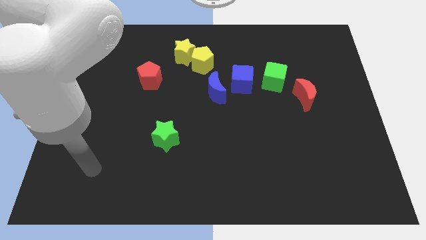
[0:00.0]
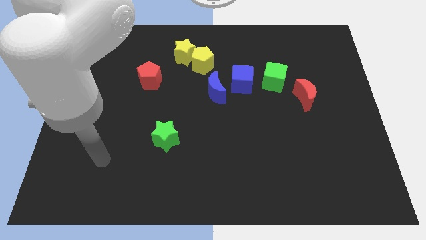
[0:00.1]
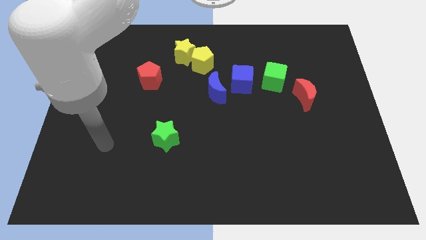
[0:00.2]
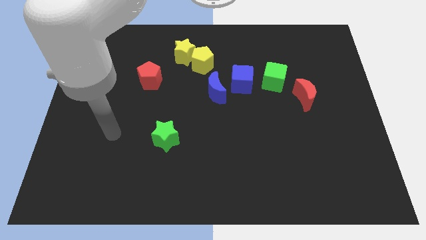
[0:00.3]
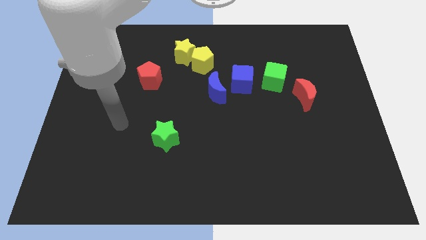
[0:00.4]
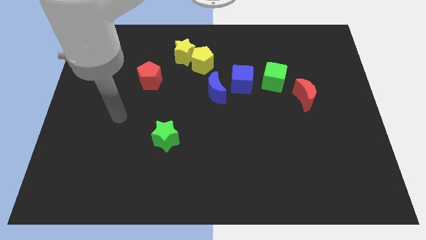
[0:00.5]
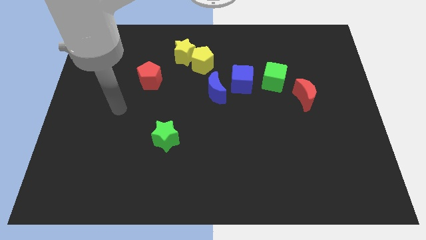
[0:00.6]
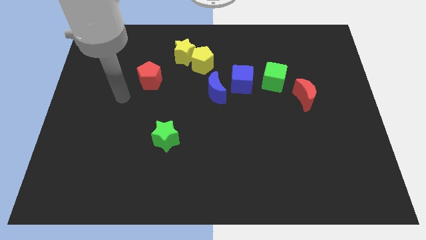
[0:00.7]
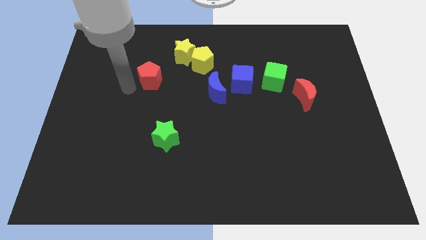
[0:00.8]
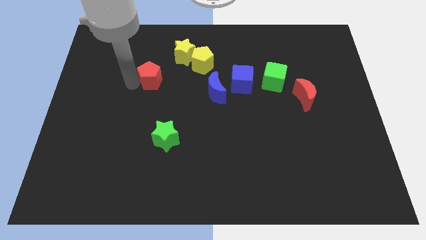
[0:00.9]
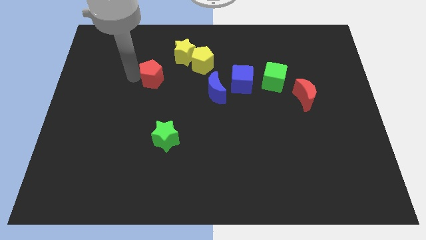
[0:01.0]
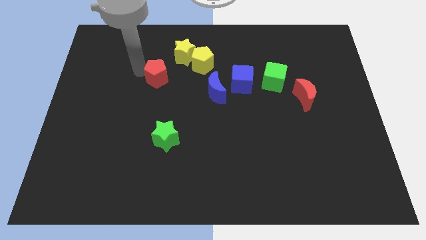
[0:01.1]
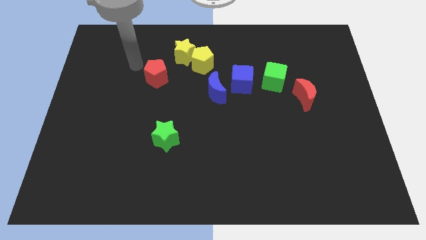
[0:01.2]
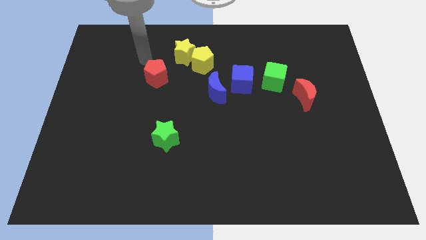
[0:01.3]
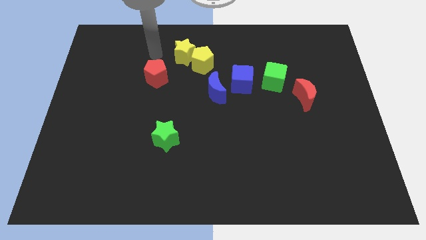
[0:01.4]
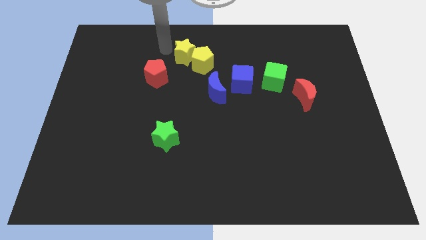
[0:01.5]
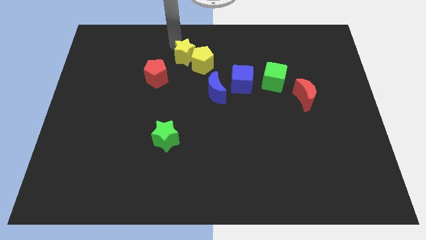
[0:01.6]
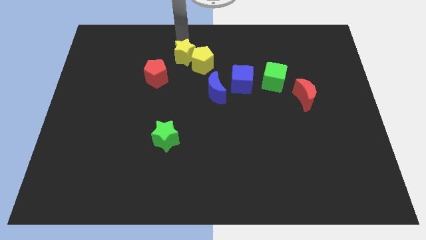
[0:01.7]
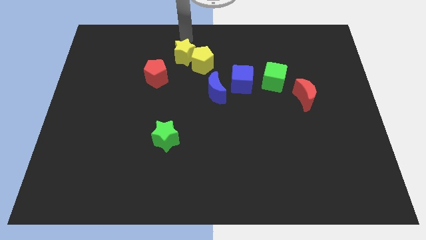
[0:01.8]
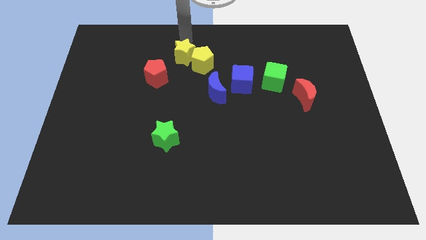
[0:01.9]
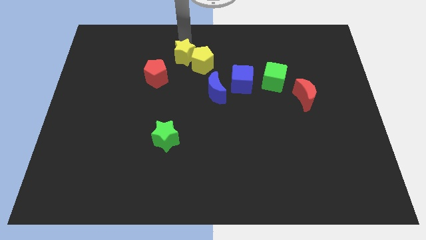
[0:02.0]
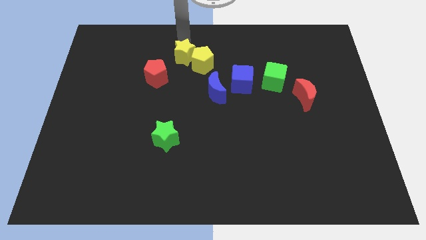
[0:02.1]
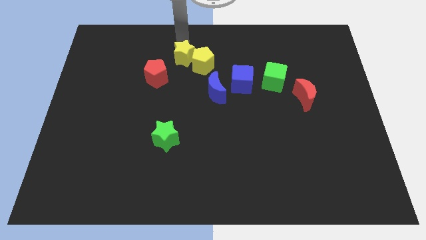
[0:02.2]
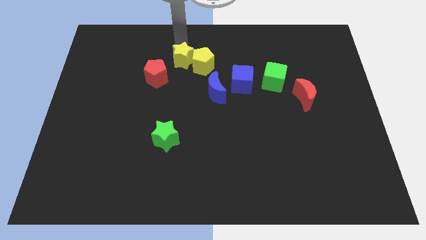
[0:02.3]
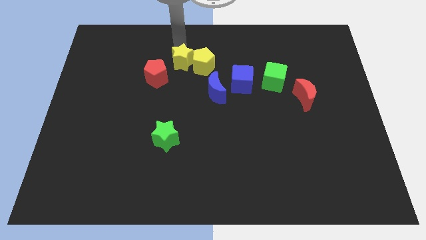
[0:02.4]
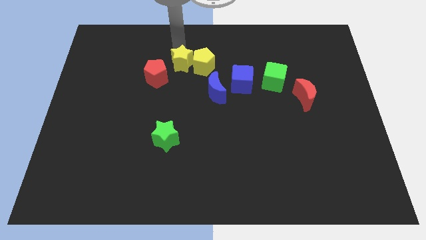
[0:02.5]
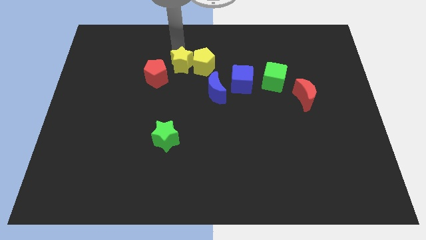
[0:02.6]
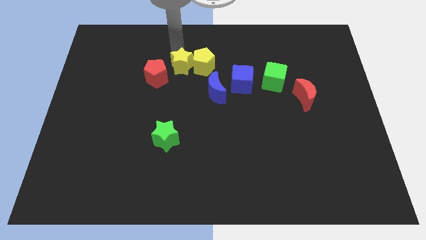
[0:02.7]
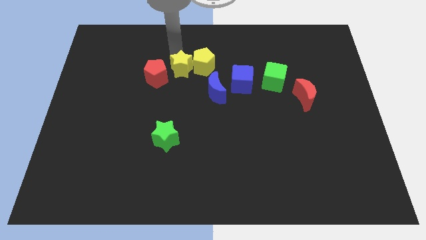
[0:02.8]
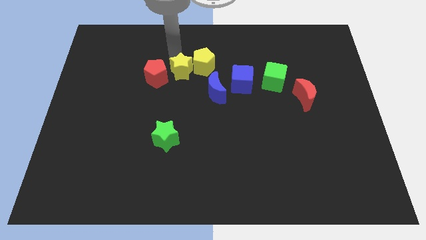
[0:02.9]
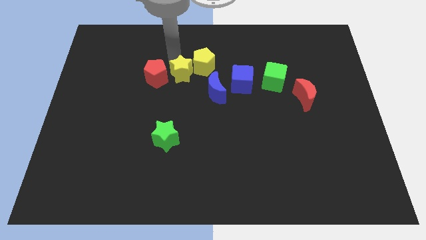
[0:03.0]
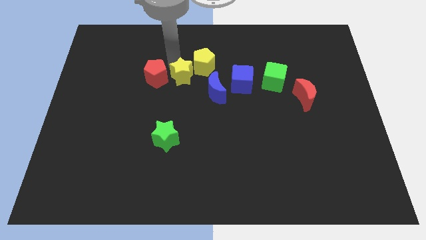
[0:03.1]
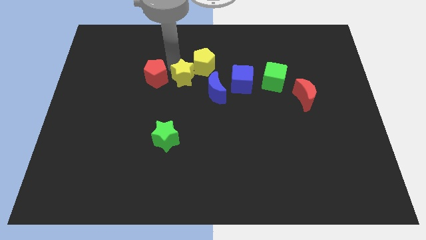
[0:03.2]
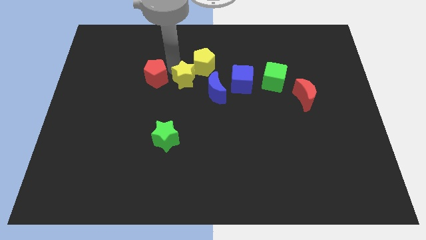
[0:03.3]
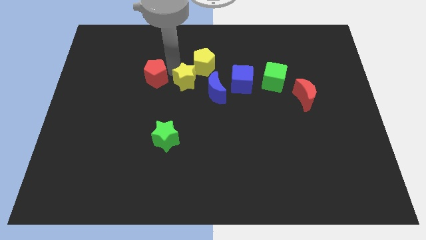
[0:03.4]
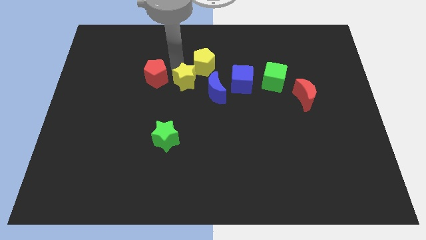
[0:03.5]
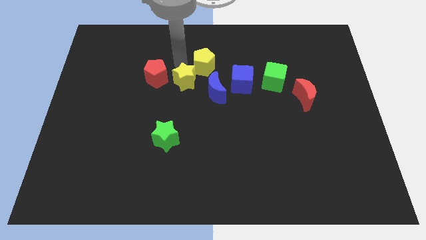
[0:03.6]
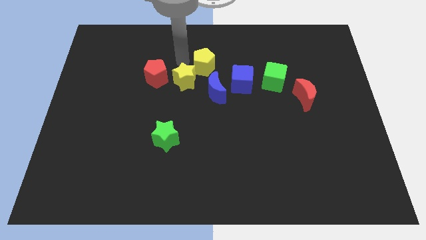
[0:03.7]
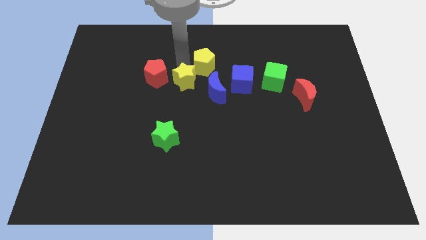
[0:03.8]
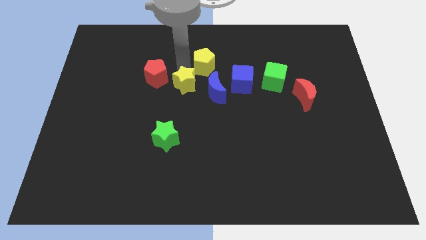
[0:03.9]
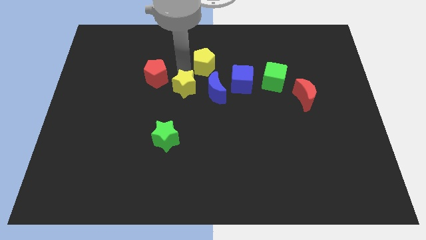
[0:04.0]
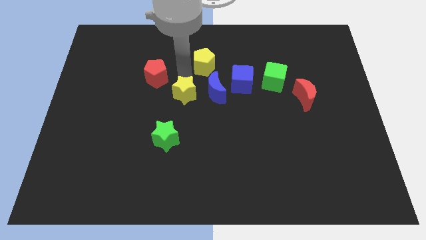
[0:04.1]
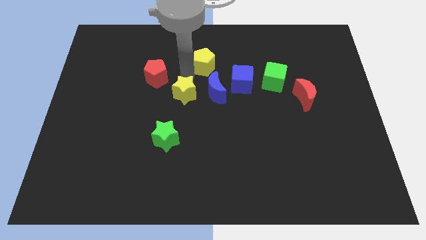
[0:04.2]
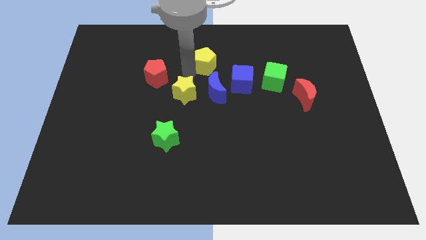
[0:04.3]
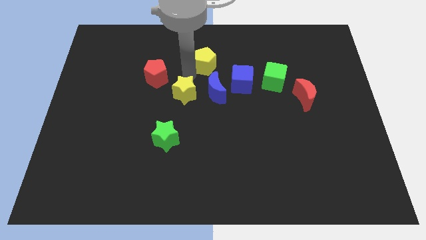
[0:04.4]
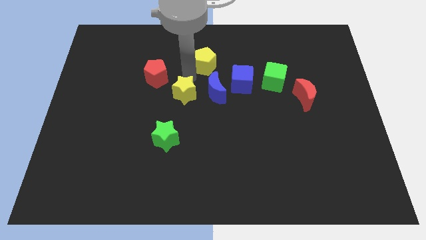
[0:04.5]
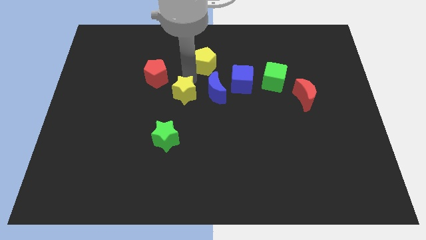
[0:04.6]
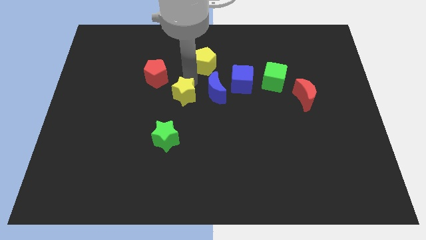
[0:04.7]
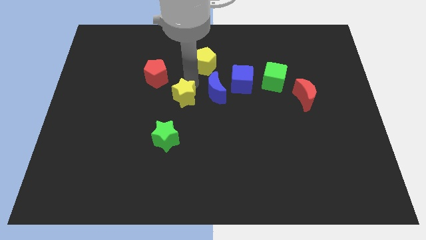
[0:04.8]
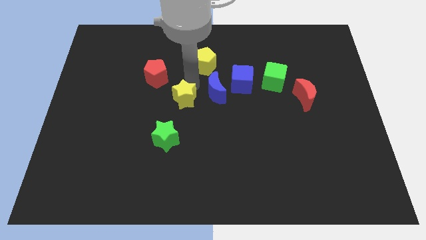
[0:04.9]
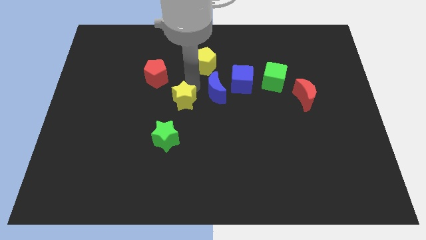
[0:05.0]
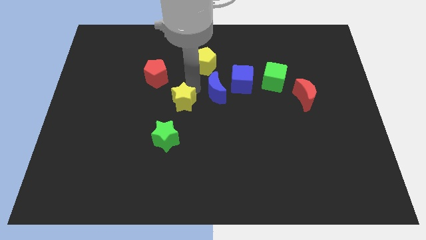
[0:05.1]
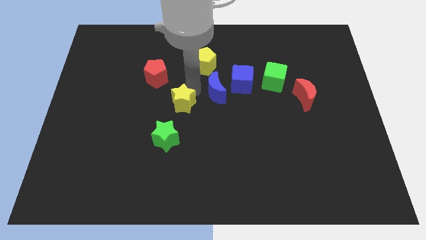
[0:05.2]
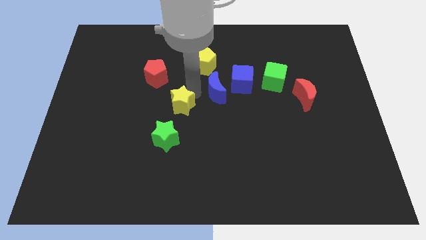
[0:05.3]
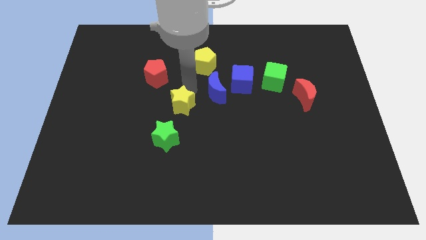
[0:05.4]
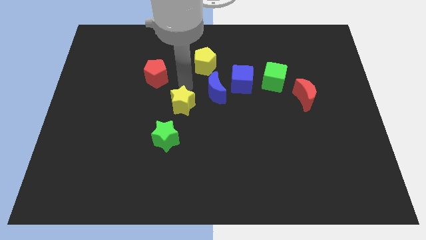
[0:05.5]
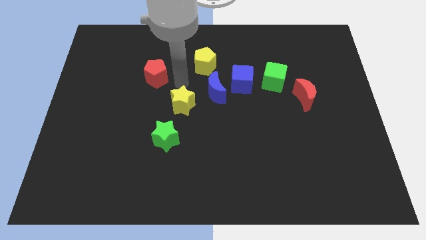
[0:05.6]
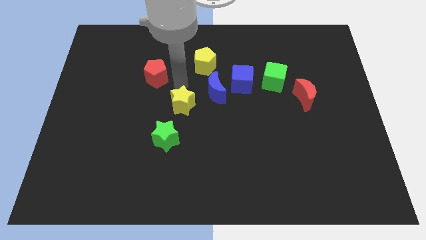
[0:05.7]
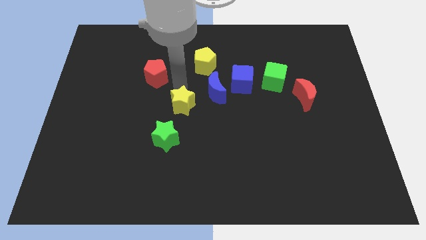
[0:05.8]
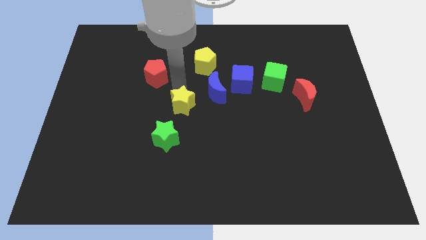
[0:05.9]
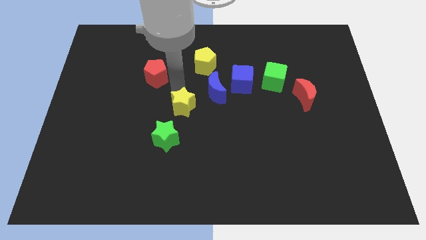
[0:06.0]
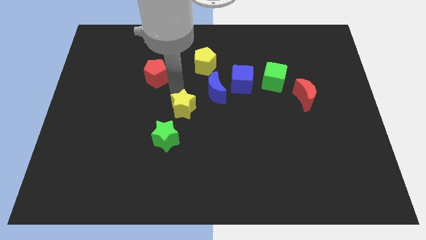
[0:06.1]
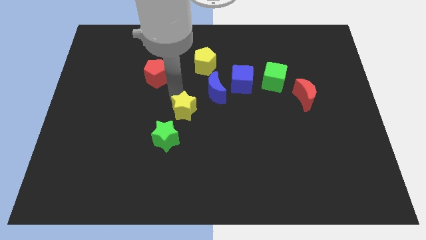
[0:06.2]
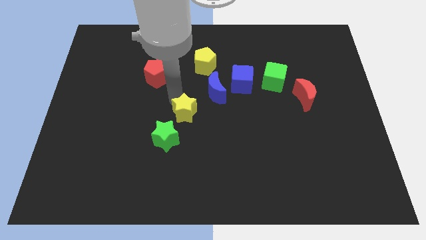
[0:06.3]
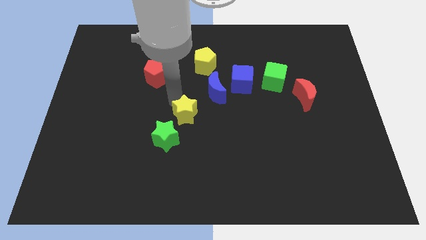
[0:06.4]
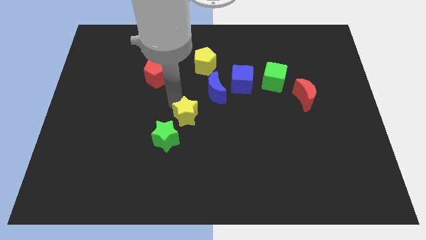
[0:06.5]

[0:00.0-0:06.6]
slide the yellow star down

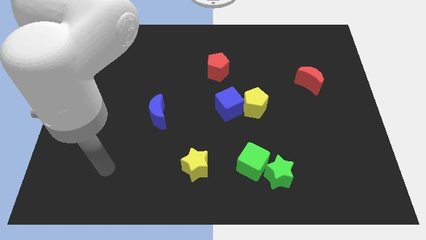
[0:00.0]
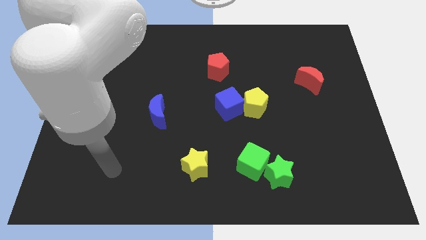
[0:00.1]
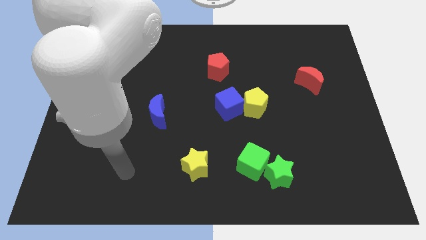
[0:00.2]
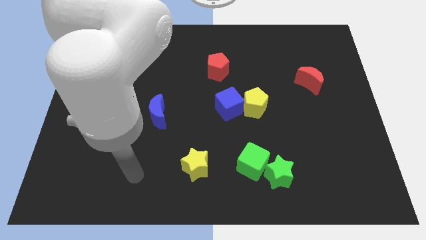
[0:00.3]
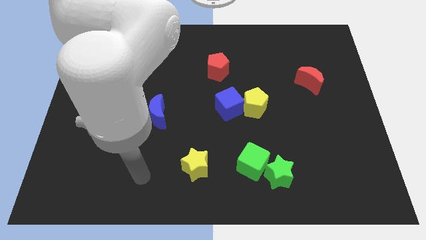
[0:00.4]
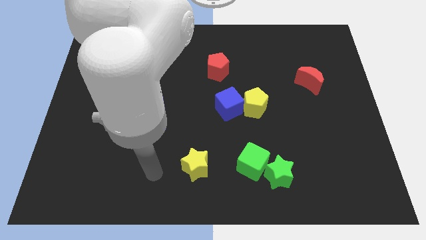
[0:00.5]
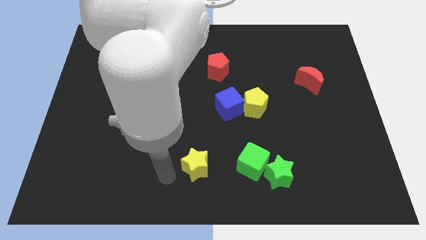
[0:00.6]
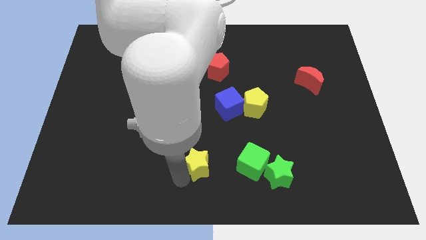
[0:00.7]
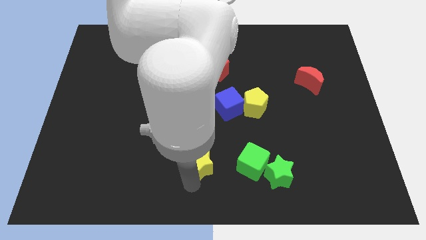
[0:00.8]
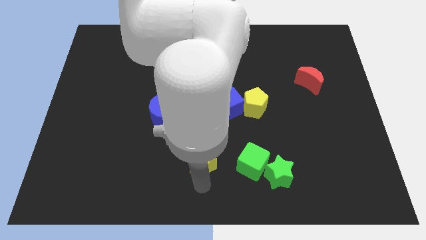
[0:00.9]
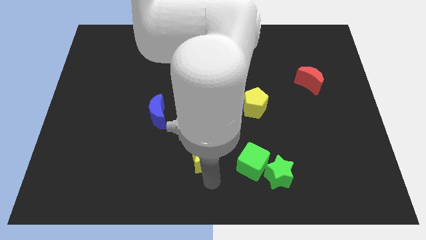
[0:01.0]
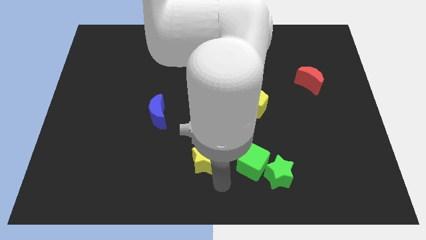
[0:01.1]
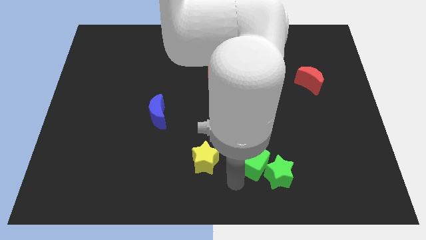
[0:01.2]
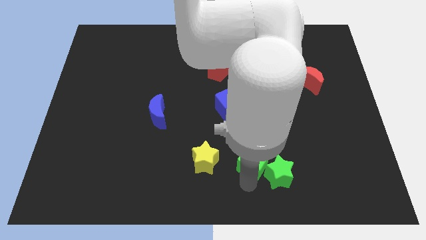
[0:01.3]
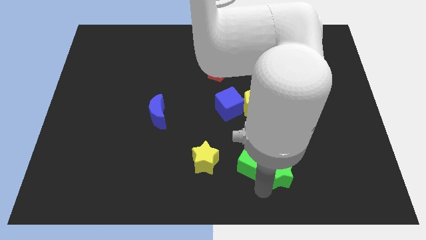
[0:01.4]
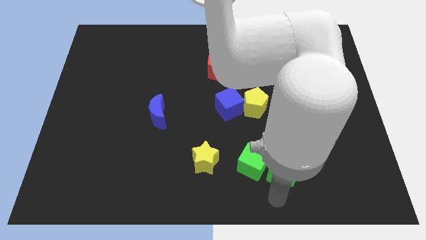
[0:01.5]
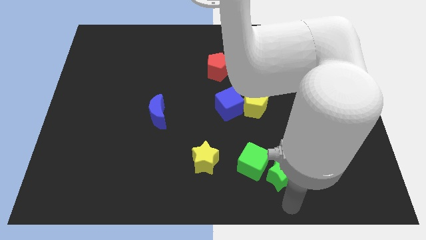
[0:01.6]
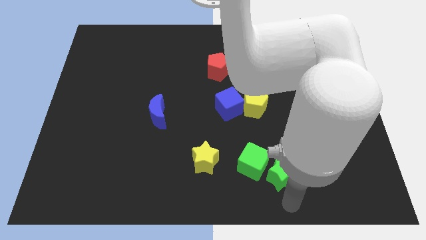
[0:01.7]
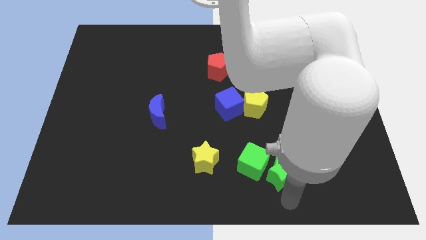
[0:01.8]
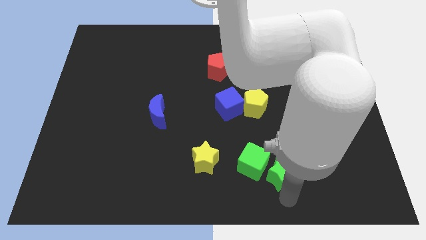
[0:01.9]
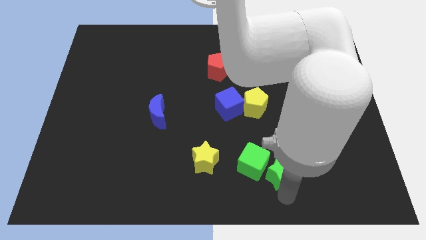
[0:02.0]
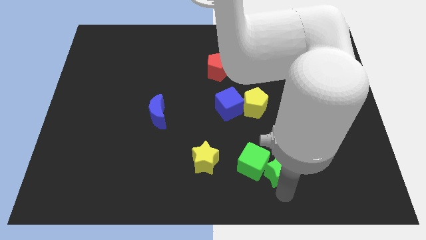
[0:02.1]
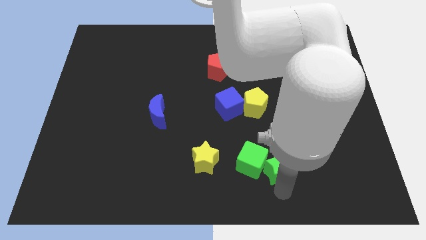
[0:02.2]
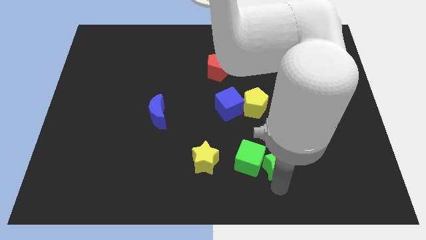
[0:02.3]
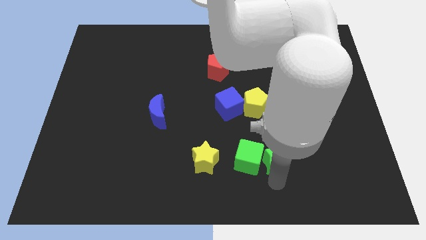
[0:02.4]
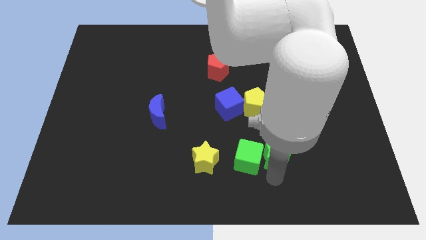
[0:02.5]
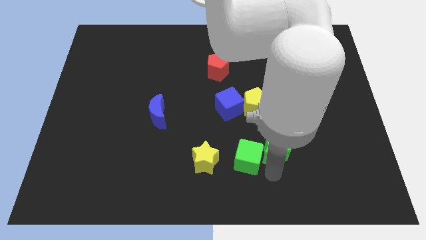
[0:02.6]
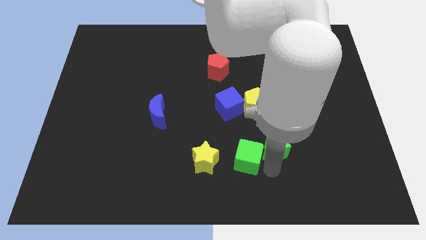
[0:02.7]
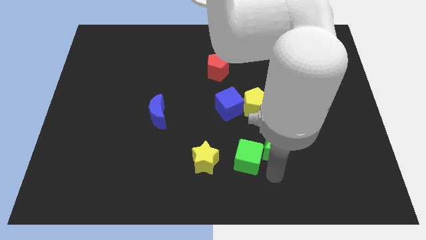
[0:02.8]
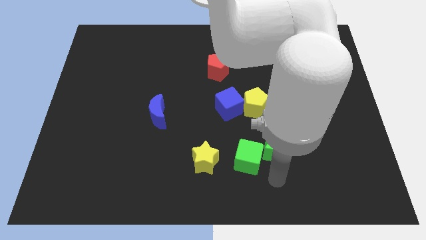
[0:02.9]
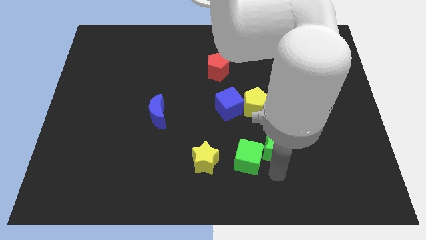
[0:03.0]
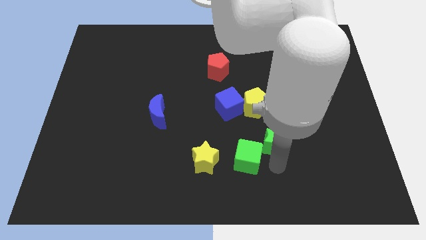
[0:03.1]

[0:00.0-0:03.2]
push the green star somewhat up
